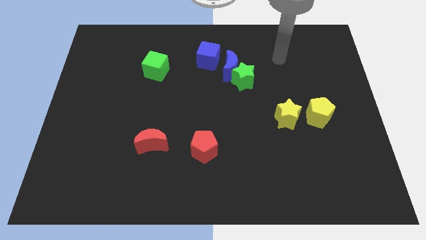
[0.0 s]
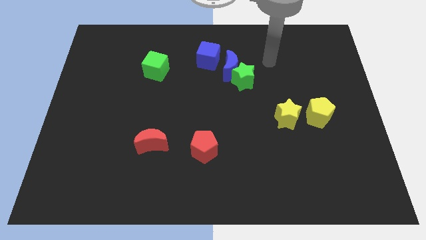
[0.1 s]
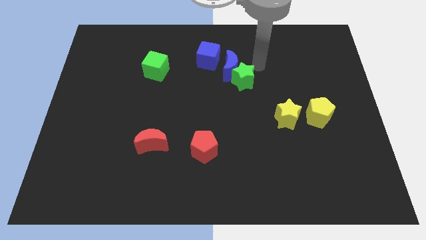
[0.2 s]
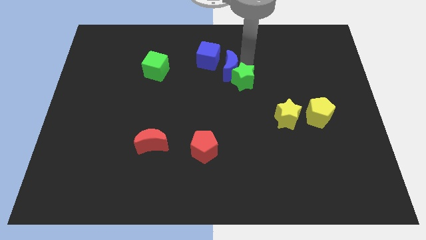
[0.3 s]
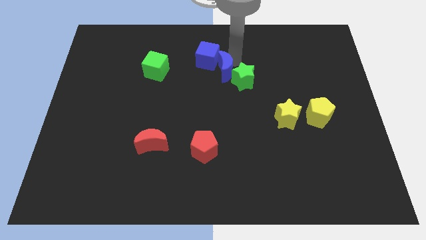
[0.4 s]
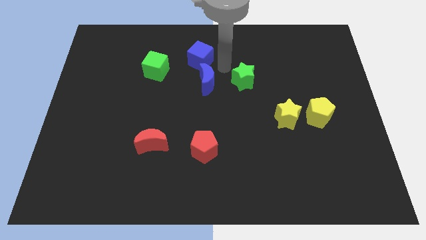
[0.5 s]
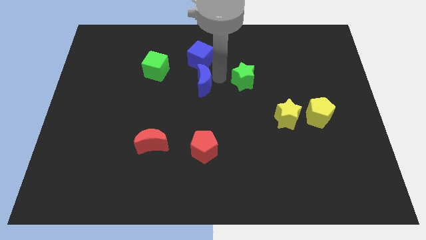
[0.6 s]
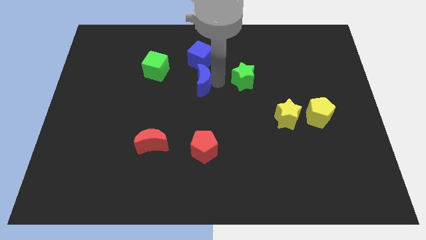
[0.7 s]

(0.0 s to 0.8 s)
pull the green star apart from the blue moon

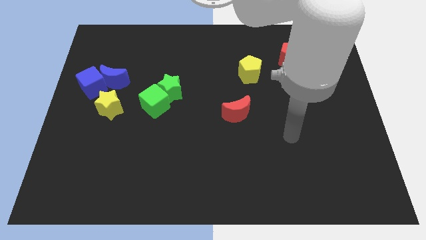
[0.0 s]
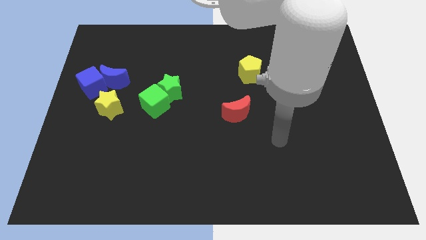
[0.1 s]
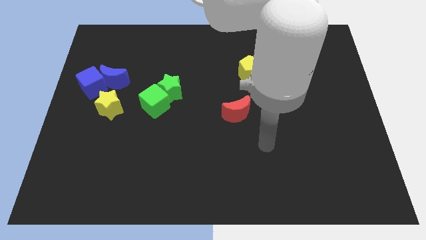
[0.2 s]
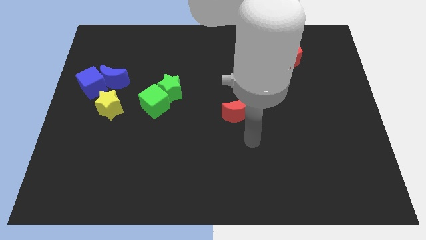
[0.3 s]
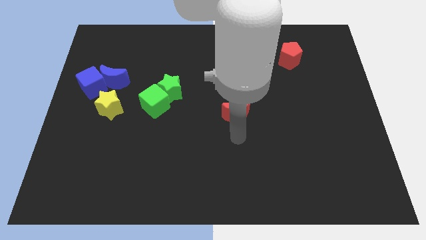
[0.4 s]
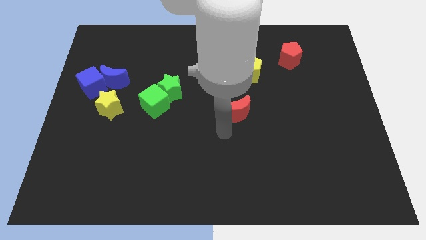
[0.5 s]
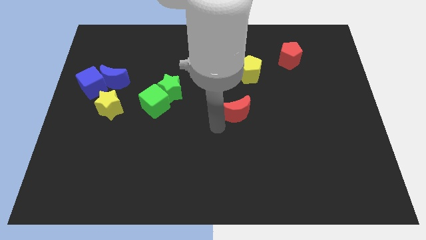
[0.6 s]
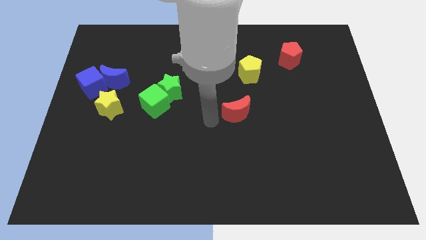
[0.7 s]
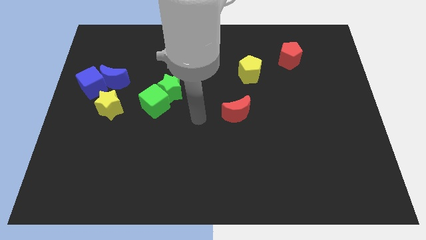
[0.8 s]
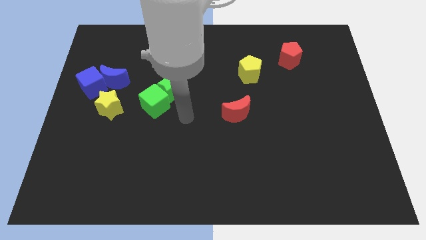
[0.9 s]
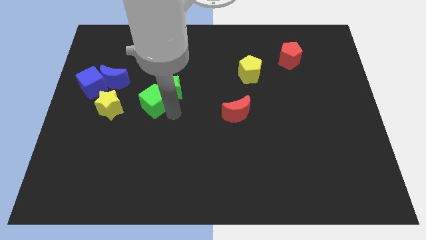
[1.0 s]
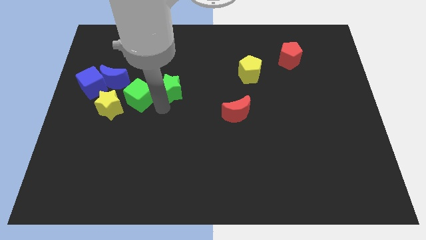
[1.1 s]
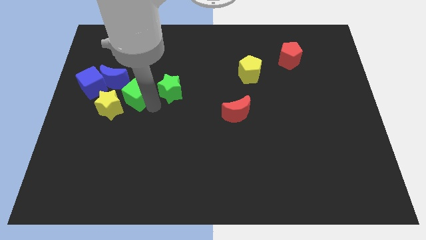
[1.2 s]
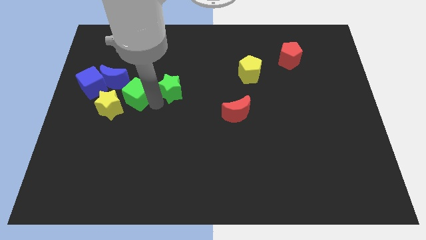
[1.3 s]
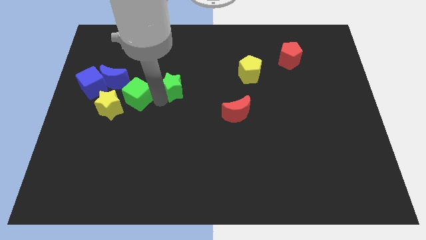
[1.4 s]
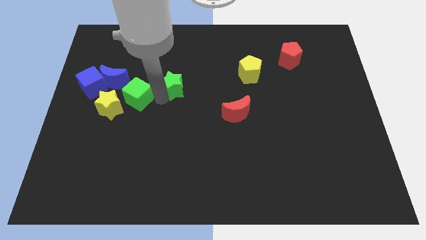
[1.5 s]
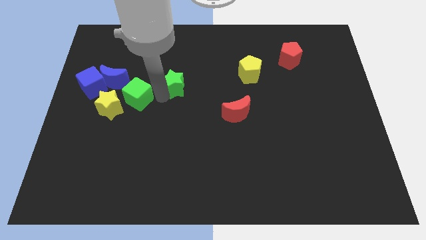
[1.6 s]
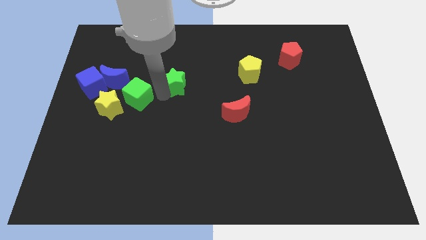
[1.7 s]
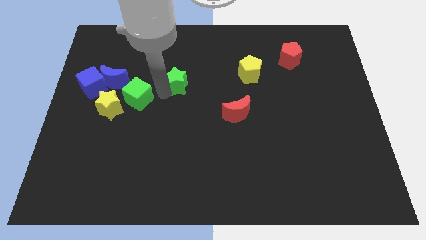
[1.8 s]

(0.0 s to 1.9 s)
separate the green star from the green cube

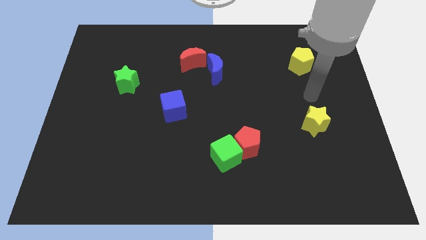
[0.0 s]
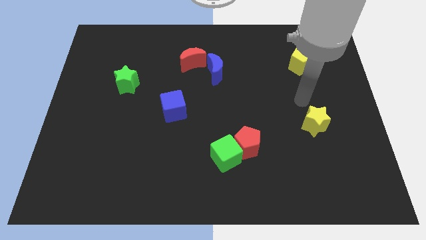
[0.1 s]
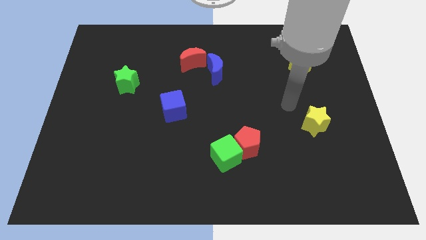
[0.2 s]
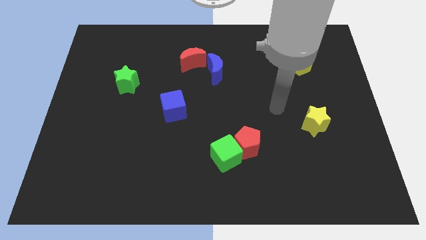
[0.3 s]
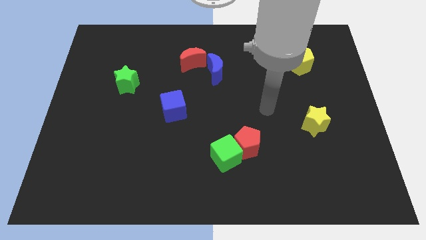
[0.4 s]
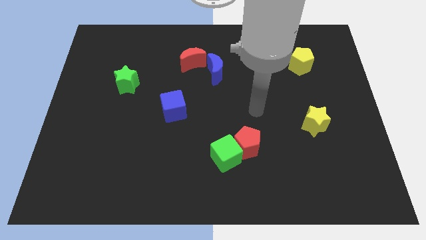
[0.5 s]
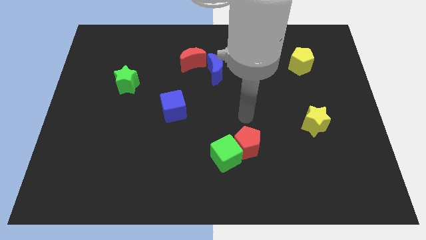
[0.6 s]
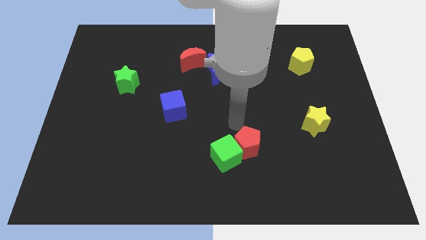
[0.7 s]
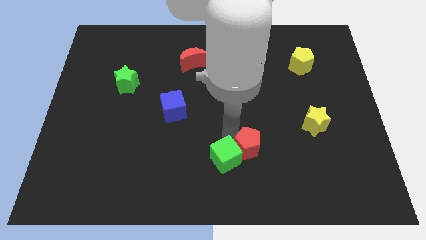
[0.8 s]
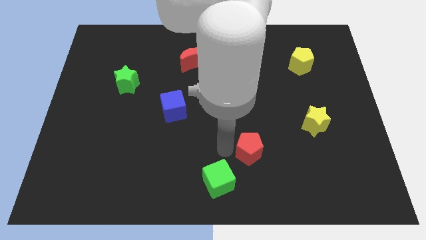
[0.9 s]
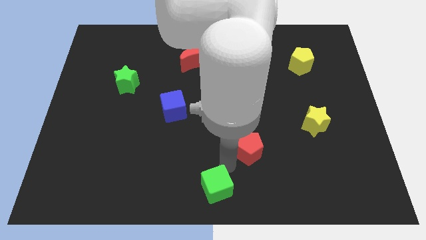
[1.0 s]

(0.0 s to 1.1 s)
move the red pentagon away from the green cube

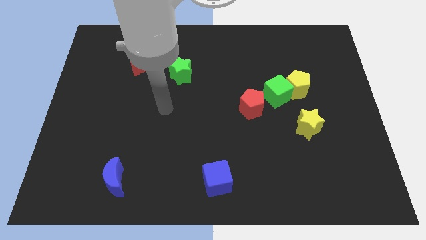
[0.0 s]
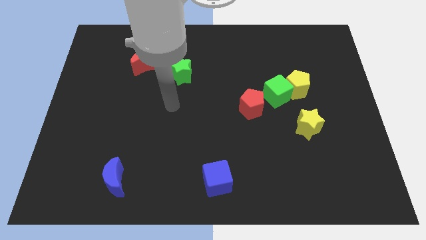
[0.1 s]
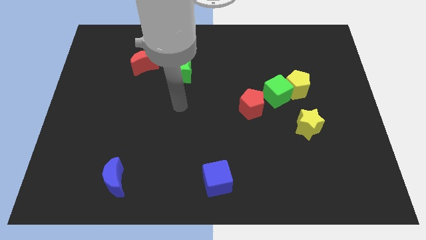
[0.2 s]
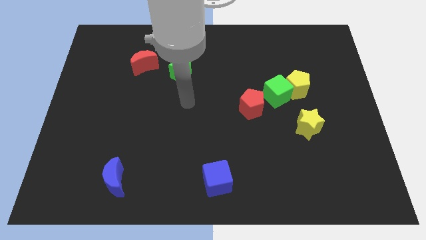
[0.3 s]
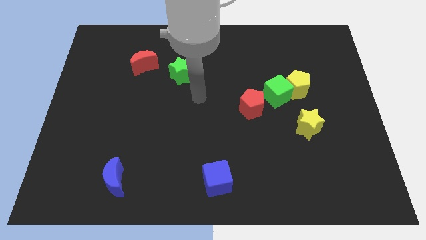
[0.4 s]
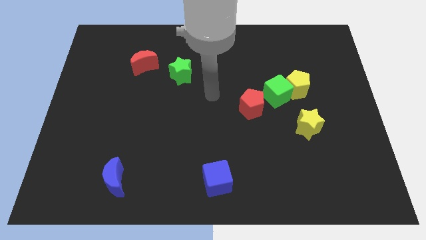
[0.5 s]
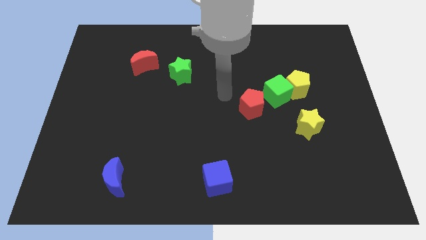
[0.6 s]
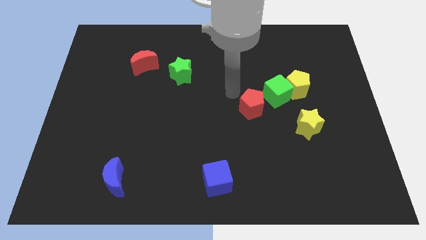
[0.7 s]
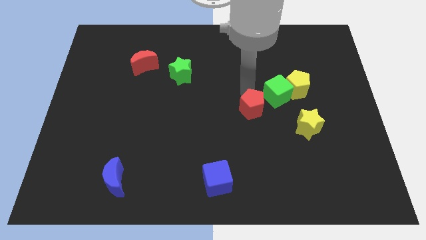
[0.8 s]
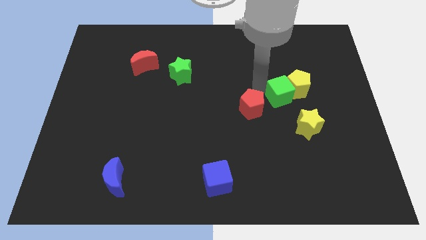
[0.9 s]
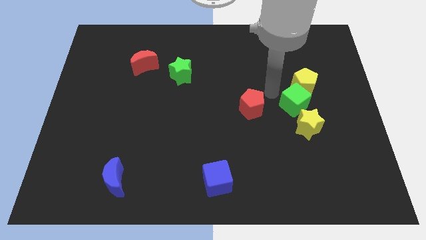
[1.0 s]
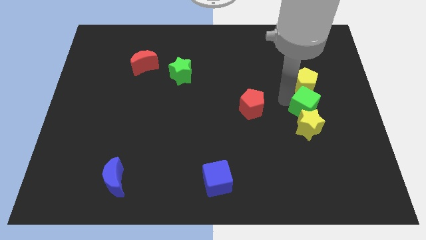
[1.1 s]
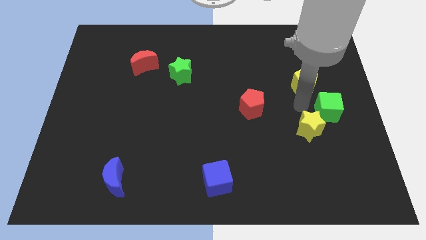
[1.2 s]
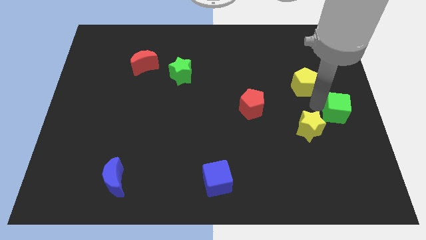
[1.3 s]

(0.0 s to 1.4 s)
pull the yellow pentagon apart from the green cube

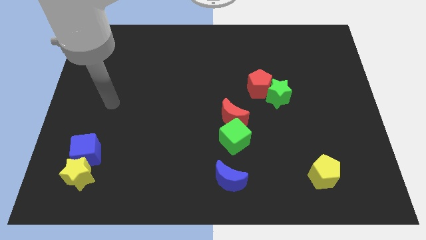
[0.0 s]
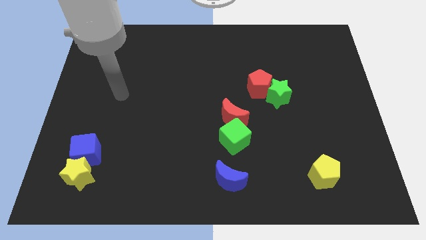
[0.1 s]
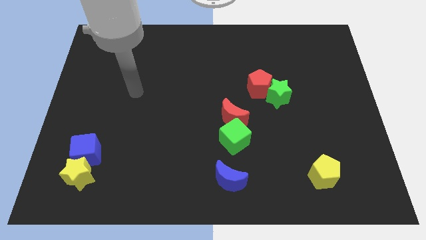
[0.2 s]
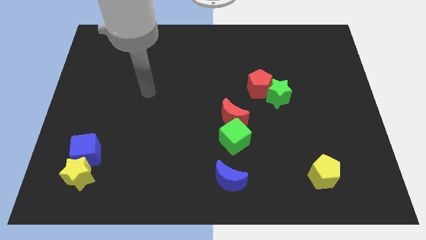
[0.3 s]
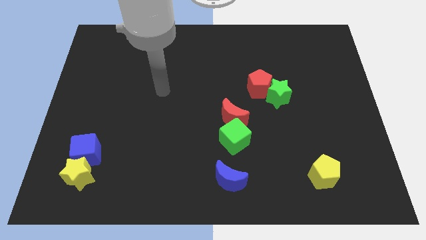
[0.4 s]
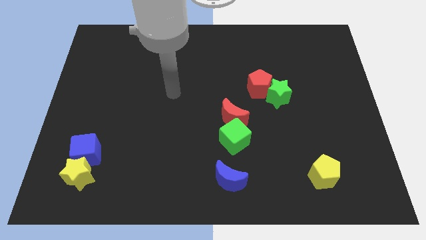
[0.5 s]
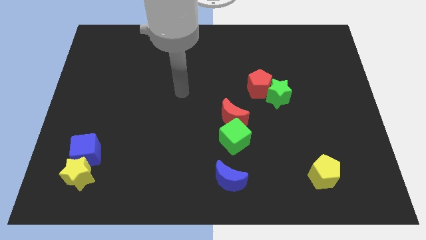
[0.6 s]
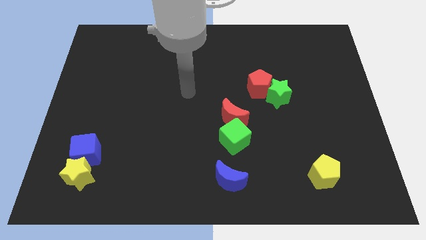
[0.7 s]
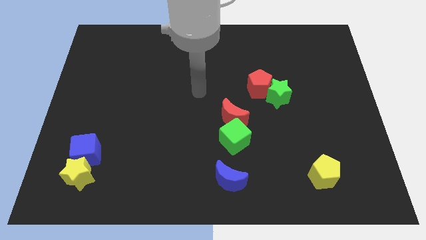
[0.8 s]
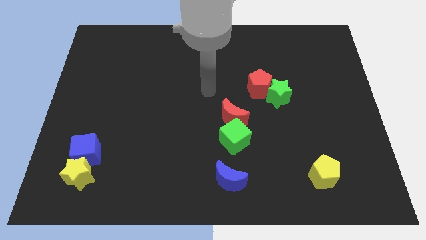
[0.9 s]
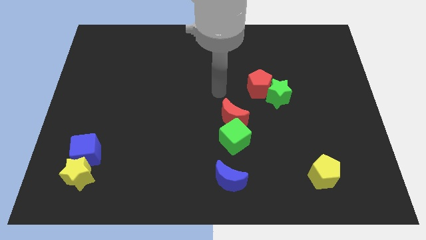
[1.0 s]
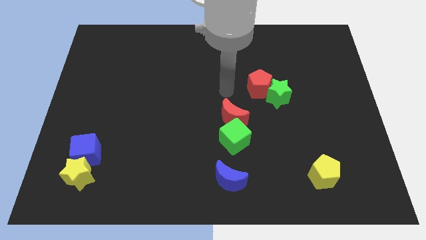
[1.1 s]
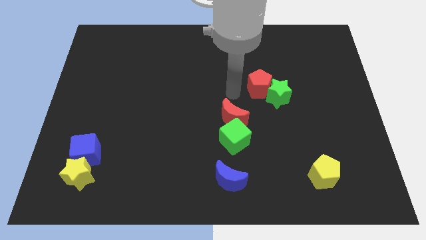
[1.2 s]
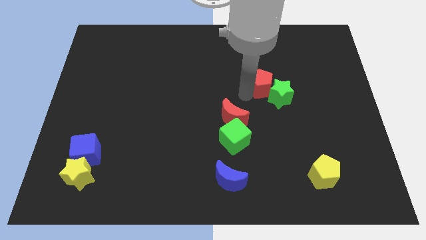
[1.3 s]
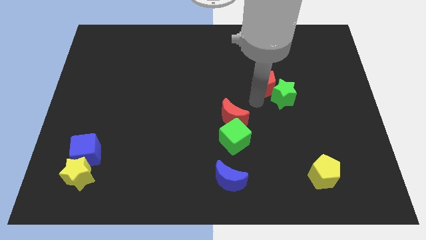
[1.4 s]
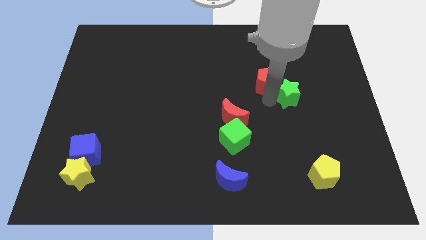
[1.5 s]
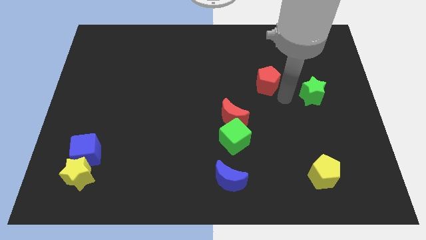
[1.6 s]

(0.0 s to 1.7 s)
move the red pentagon away from the green star

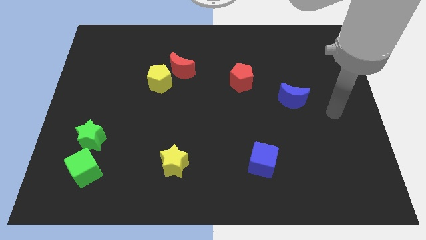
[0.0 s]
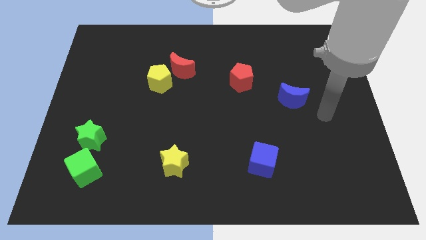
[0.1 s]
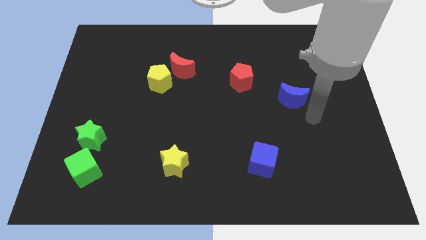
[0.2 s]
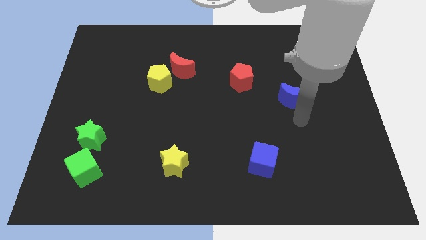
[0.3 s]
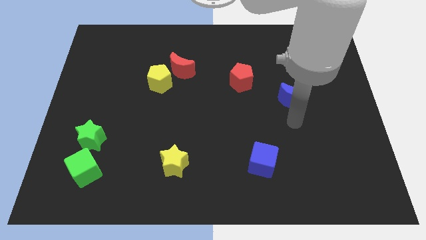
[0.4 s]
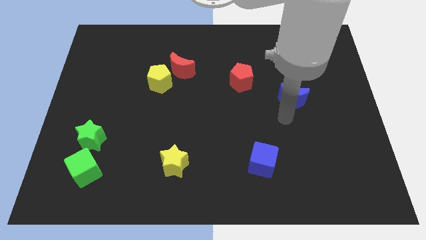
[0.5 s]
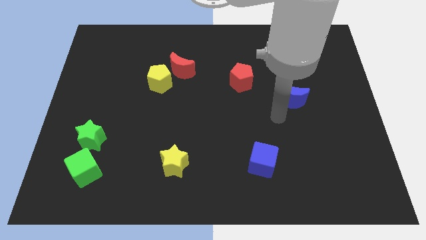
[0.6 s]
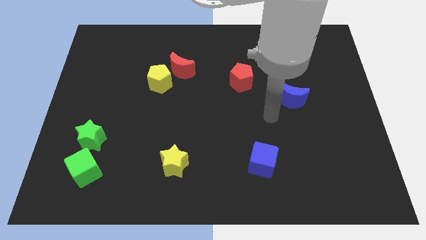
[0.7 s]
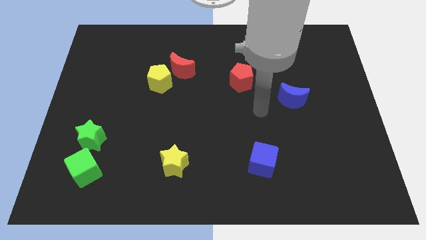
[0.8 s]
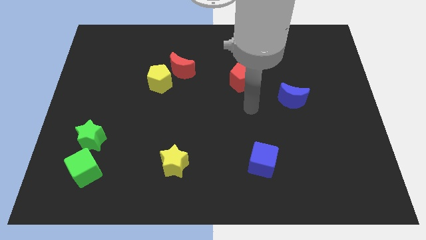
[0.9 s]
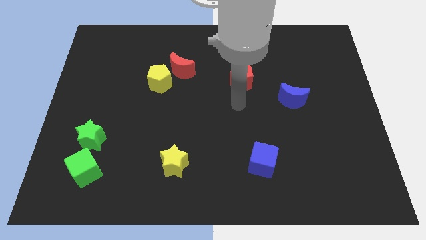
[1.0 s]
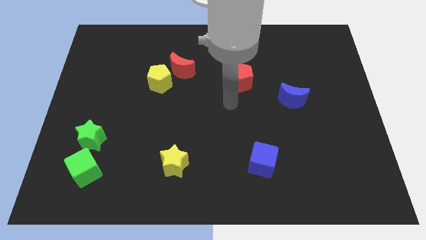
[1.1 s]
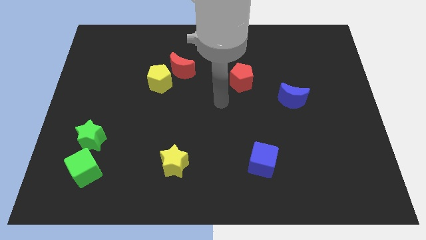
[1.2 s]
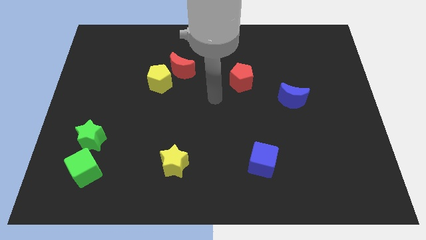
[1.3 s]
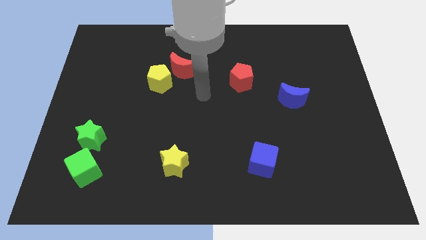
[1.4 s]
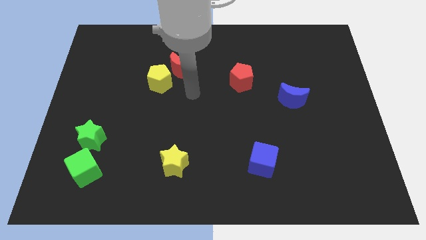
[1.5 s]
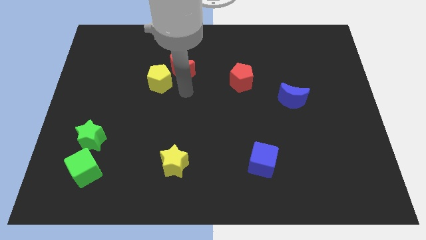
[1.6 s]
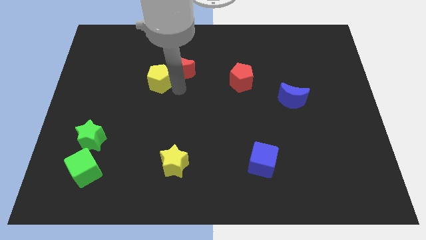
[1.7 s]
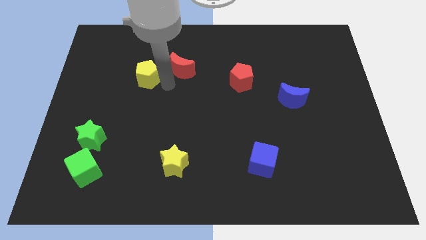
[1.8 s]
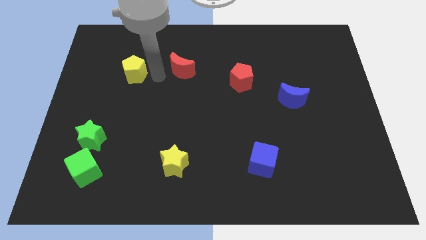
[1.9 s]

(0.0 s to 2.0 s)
separate the red moon from the yellow pentagon

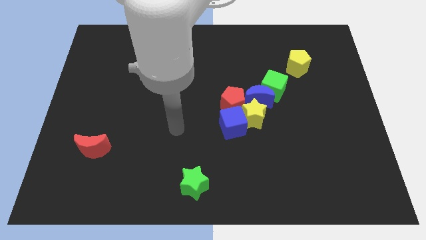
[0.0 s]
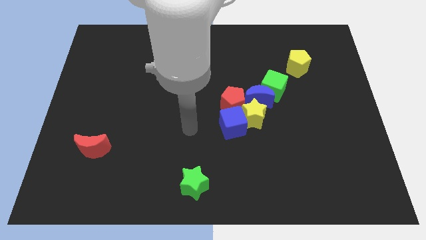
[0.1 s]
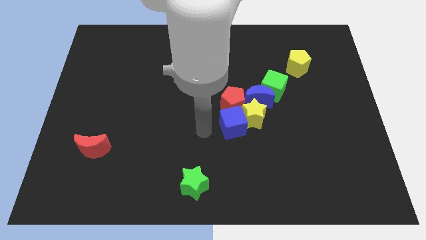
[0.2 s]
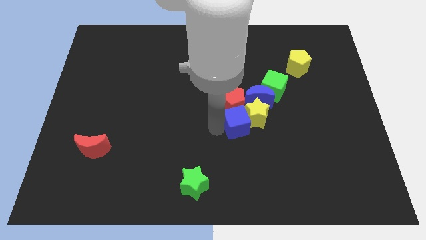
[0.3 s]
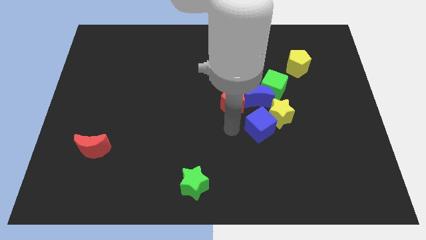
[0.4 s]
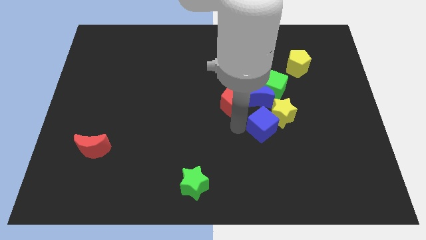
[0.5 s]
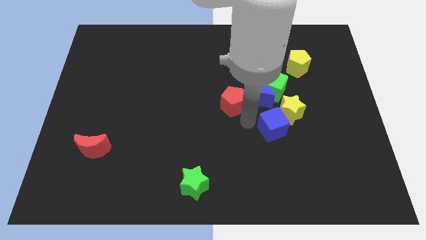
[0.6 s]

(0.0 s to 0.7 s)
separate the red pentagon from the blue cube, yellow star, and blue moon
